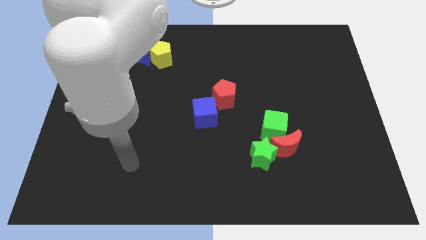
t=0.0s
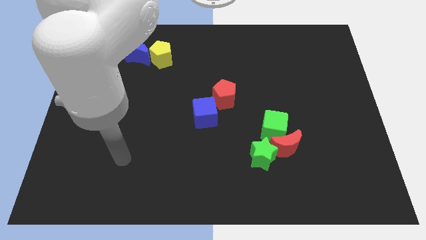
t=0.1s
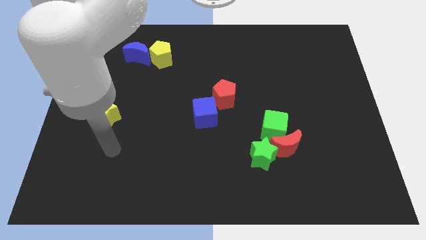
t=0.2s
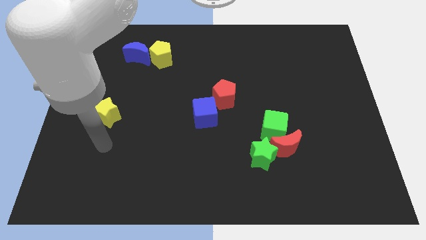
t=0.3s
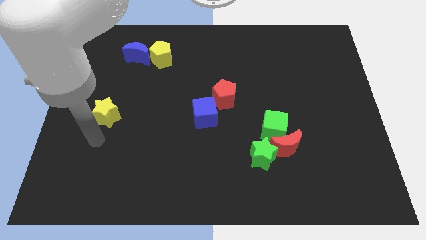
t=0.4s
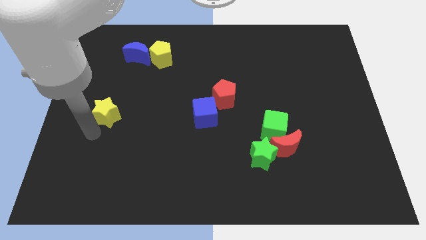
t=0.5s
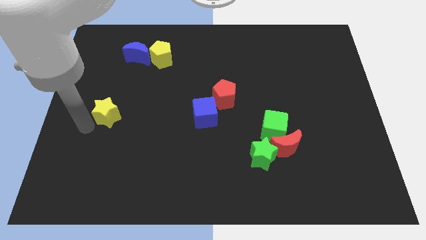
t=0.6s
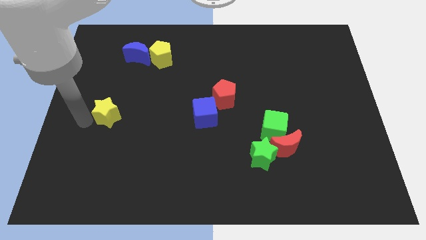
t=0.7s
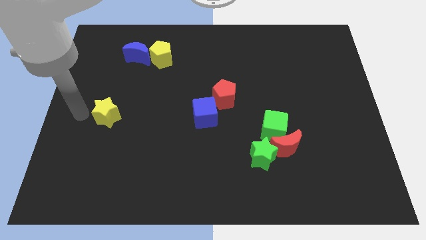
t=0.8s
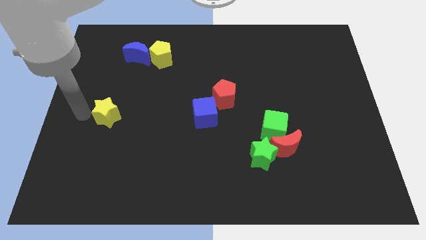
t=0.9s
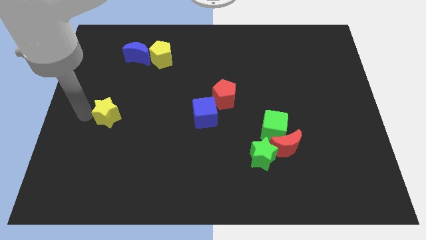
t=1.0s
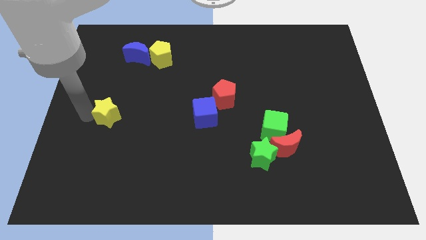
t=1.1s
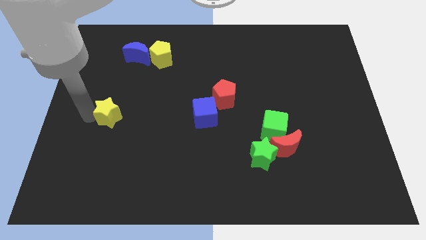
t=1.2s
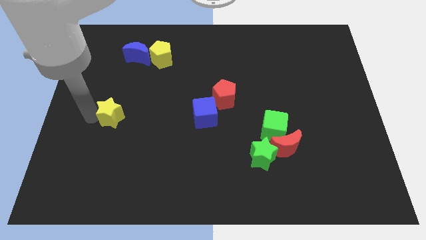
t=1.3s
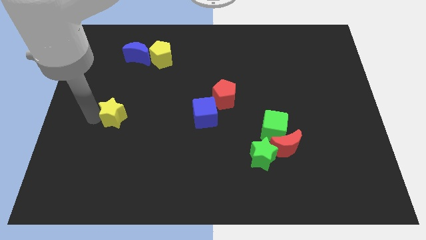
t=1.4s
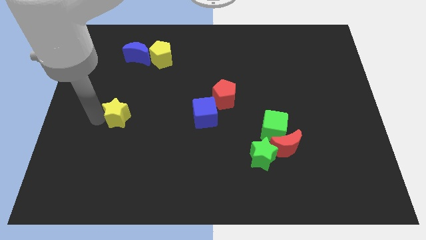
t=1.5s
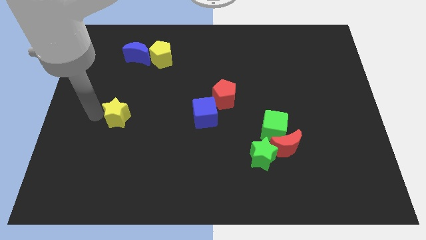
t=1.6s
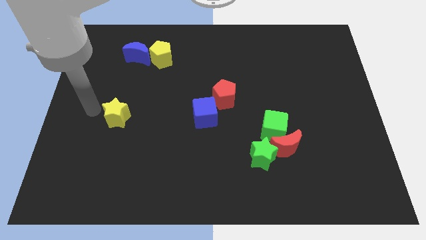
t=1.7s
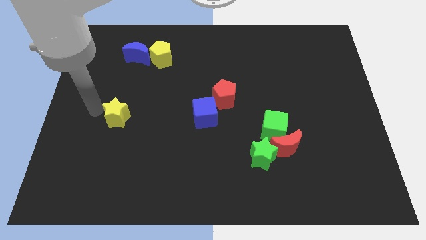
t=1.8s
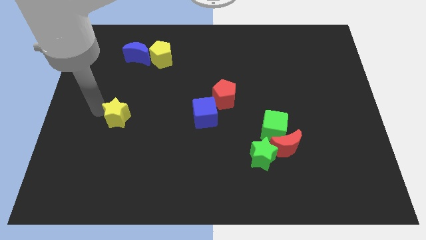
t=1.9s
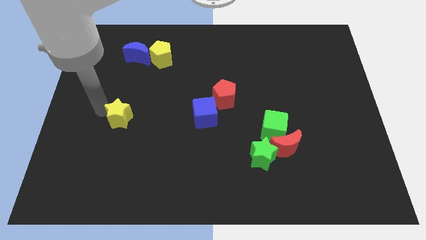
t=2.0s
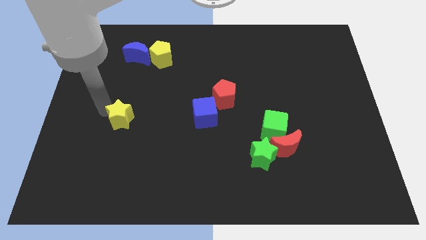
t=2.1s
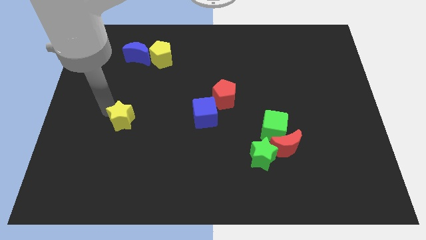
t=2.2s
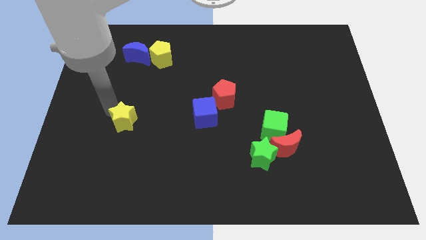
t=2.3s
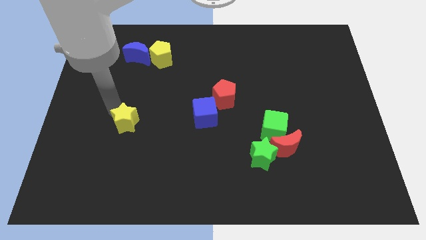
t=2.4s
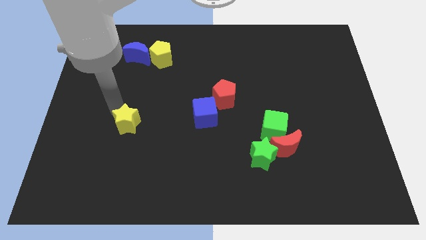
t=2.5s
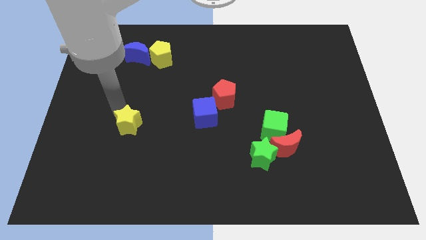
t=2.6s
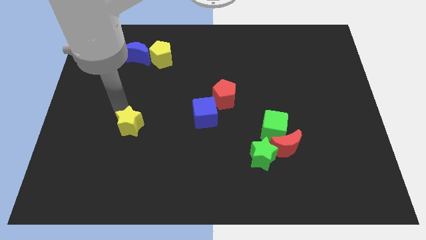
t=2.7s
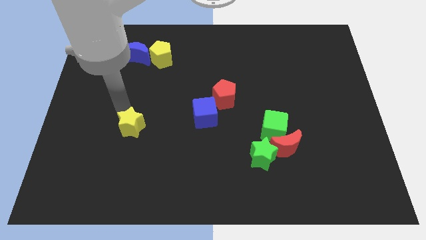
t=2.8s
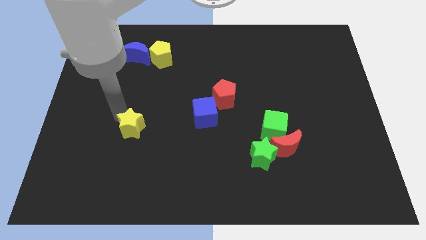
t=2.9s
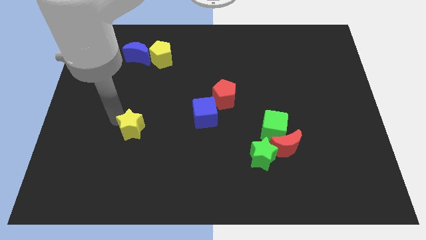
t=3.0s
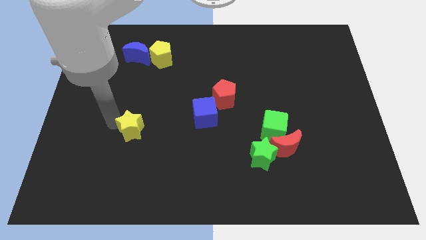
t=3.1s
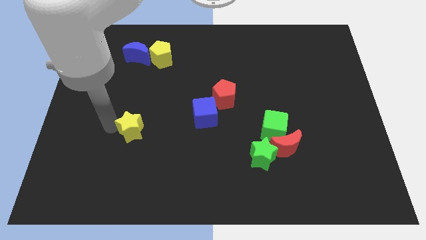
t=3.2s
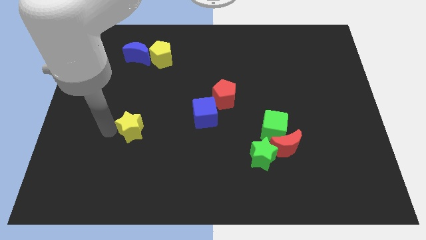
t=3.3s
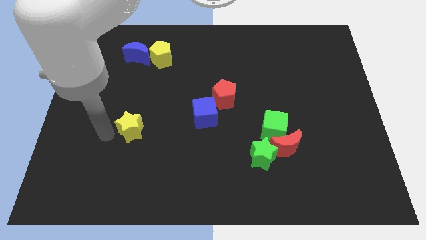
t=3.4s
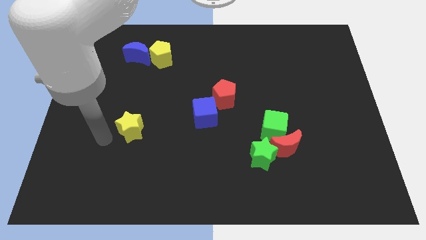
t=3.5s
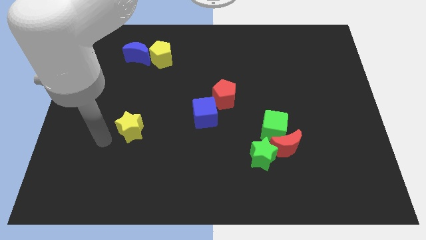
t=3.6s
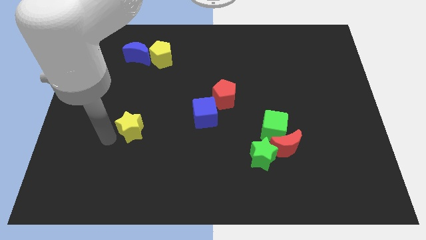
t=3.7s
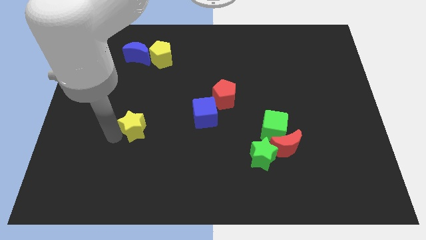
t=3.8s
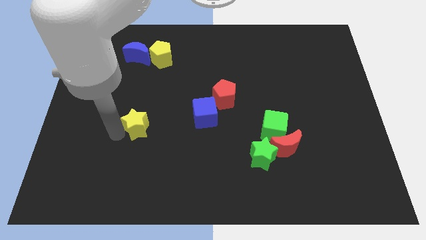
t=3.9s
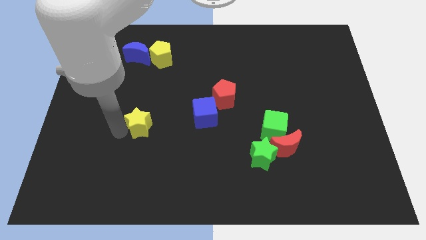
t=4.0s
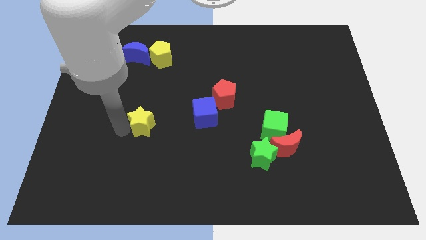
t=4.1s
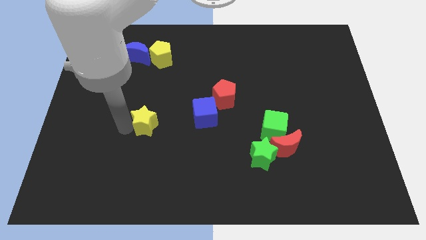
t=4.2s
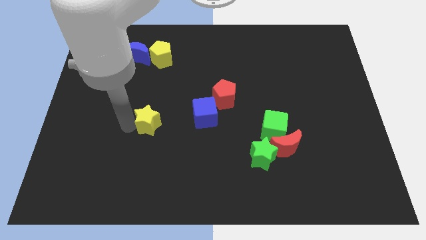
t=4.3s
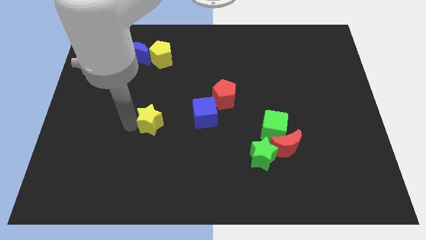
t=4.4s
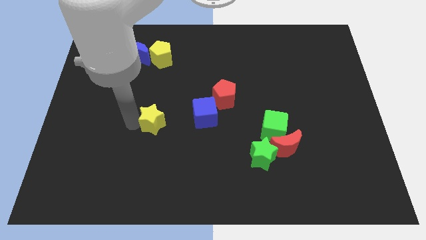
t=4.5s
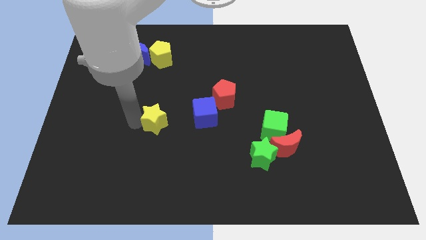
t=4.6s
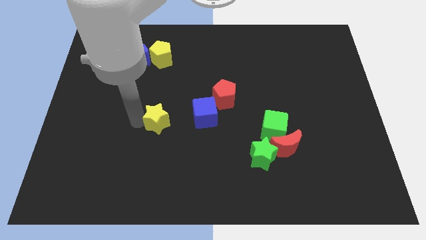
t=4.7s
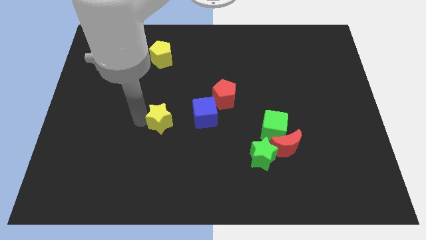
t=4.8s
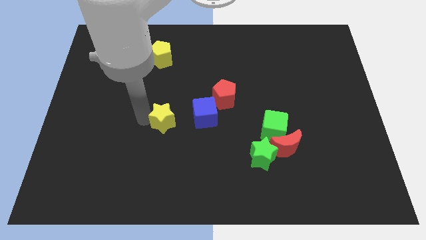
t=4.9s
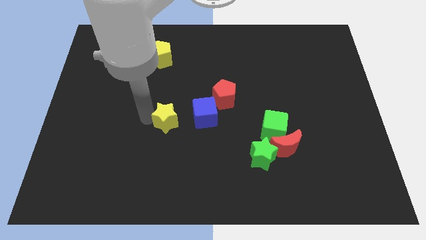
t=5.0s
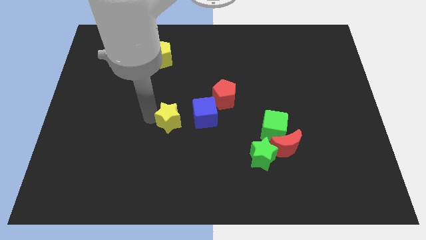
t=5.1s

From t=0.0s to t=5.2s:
push the yellow star diagonally down and to the left of the blue cube

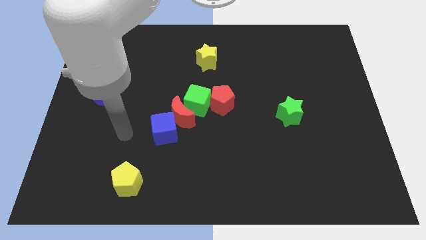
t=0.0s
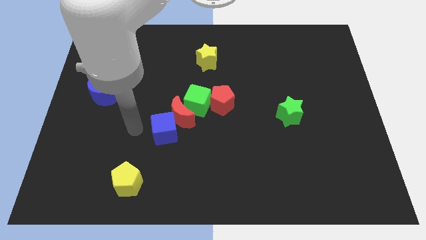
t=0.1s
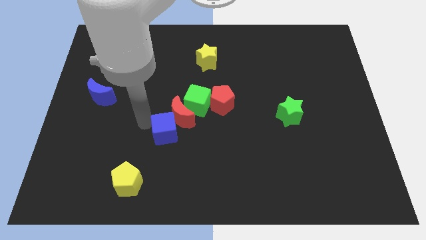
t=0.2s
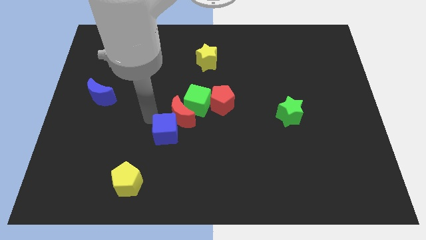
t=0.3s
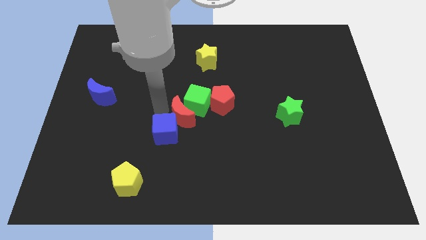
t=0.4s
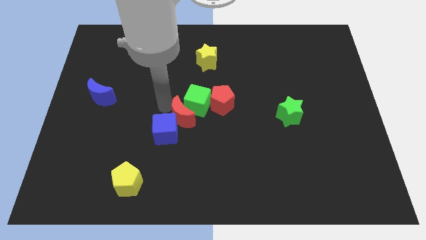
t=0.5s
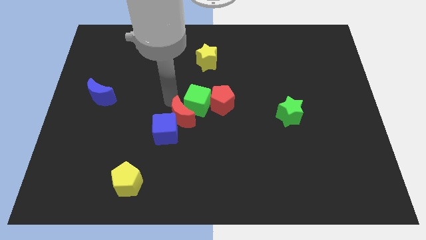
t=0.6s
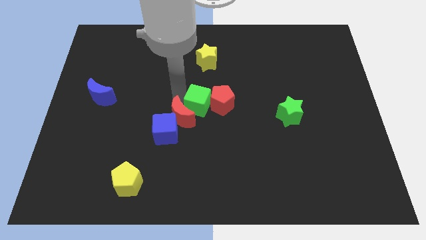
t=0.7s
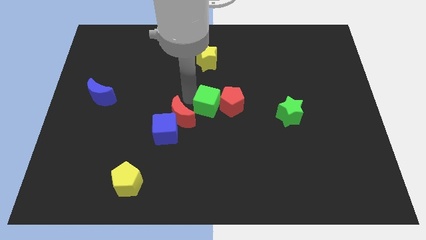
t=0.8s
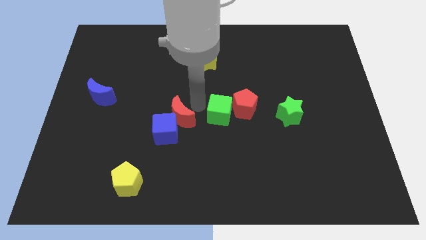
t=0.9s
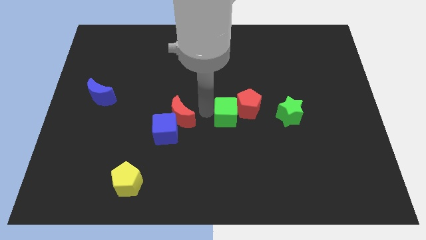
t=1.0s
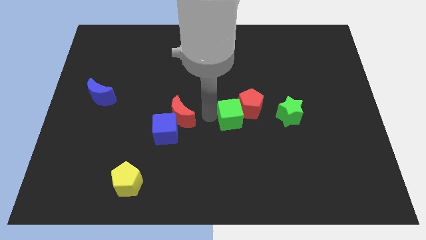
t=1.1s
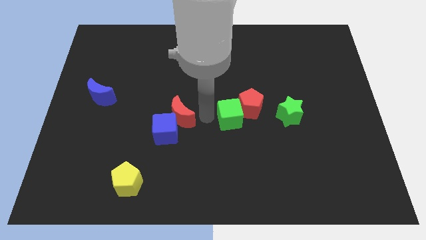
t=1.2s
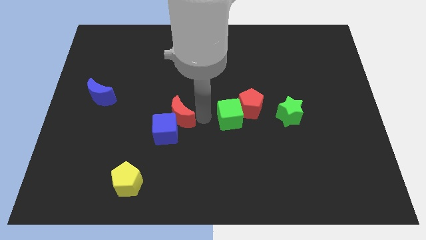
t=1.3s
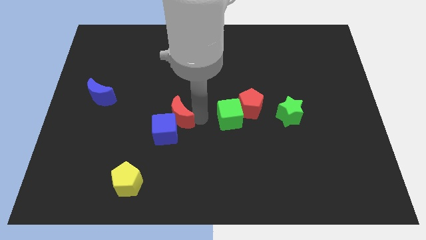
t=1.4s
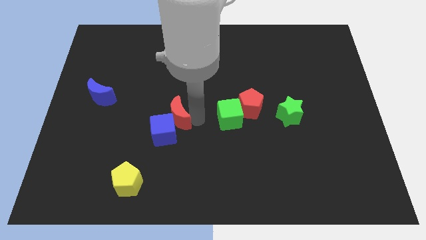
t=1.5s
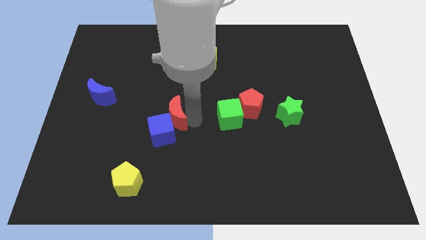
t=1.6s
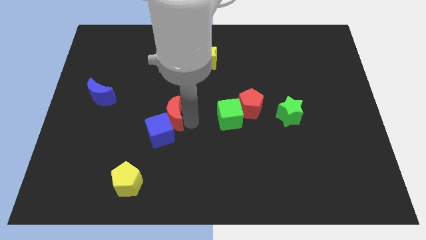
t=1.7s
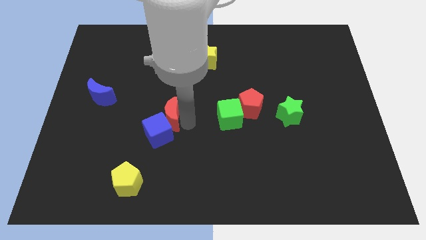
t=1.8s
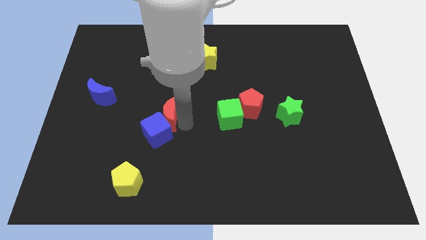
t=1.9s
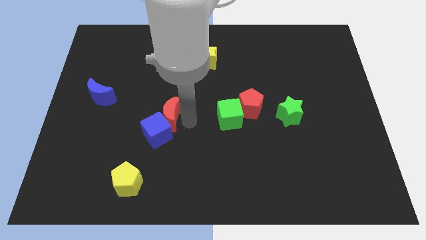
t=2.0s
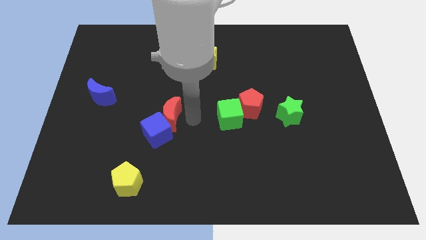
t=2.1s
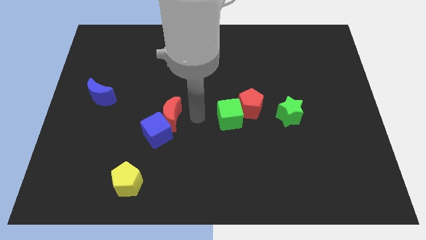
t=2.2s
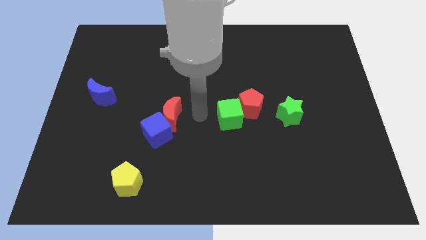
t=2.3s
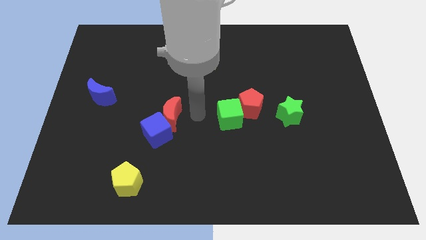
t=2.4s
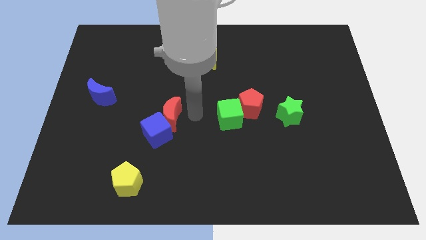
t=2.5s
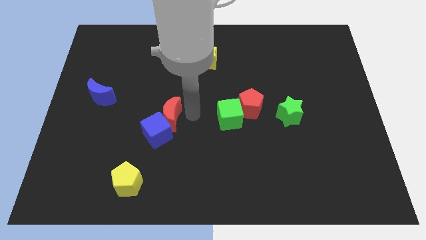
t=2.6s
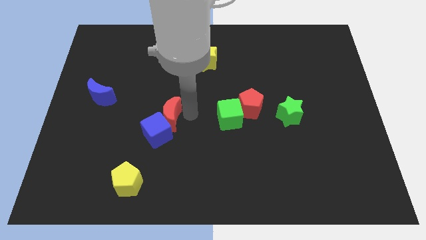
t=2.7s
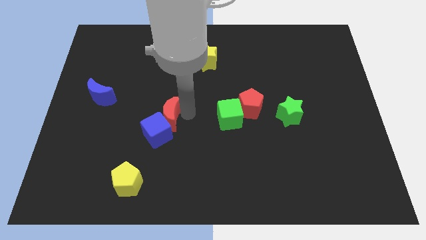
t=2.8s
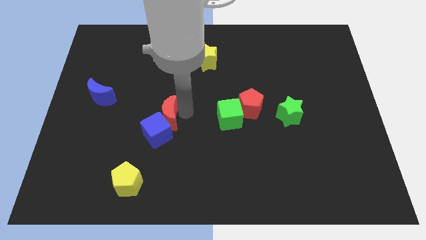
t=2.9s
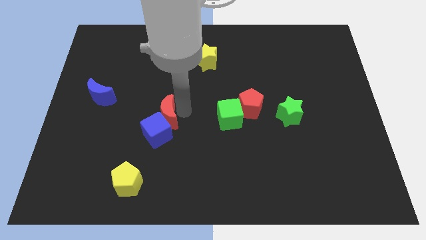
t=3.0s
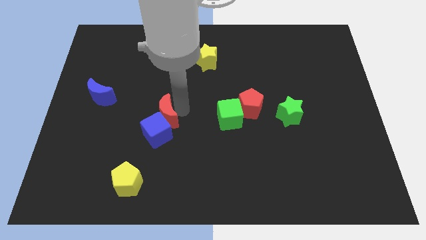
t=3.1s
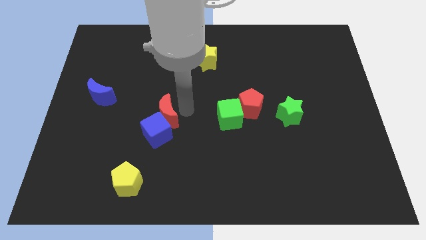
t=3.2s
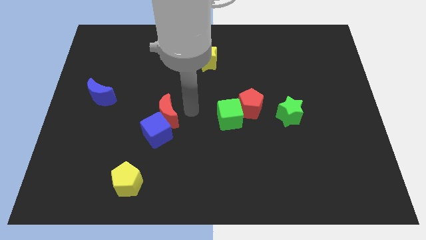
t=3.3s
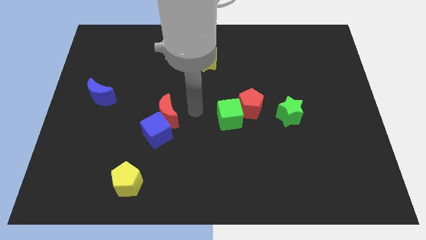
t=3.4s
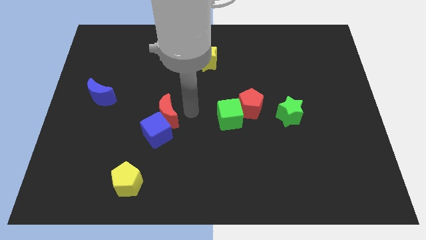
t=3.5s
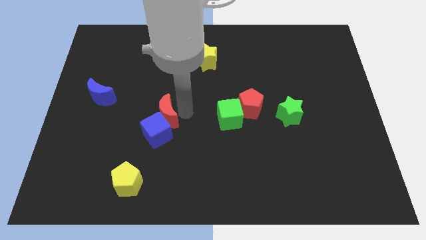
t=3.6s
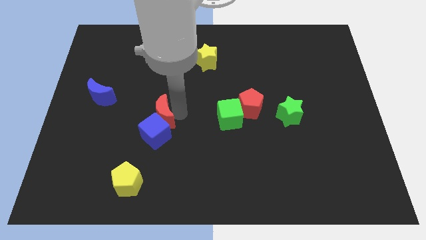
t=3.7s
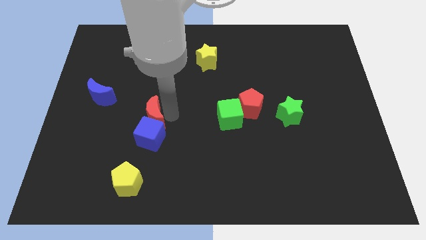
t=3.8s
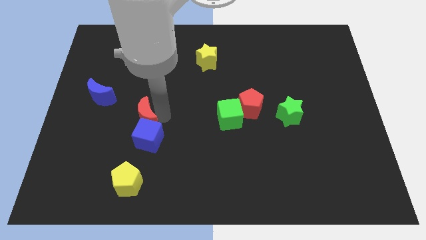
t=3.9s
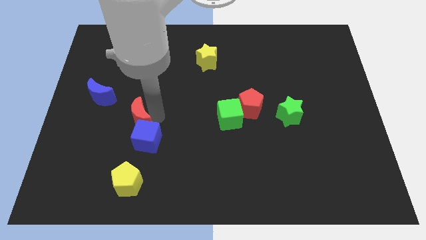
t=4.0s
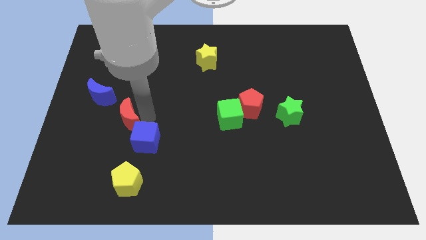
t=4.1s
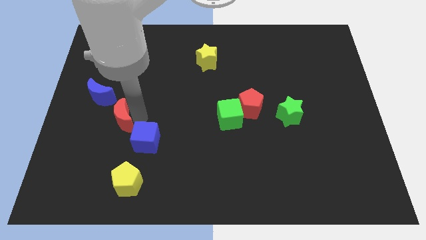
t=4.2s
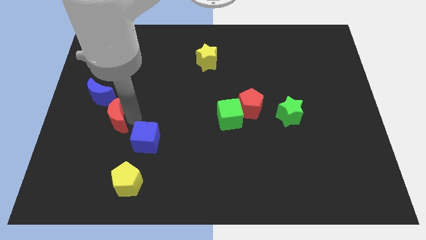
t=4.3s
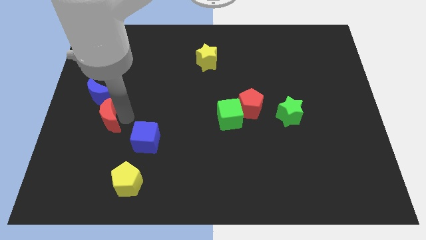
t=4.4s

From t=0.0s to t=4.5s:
push the red moon to the bottom of the blue moon
